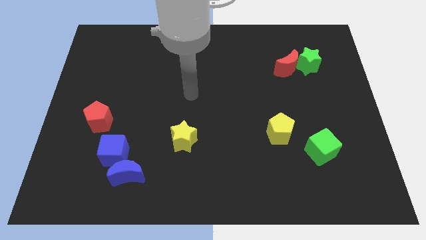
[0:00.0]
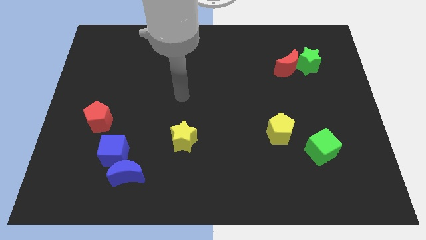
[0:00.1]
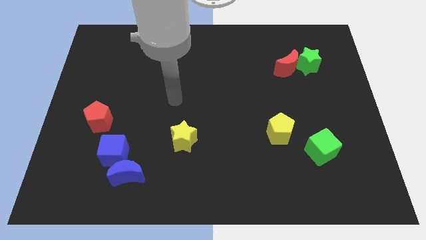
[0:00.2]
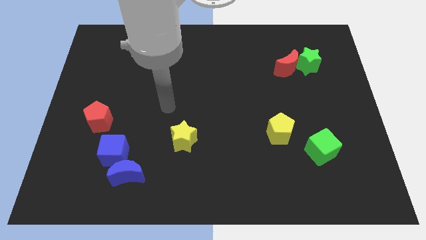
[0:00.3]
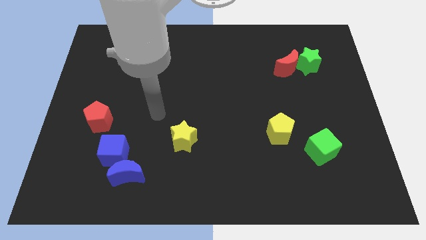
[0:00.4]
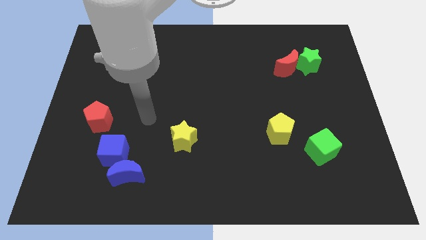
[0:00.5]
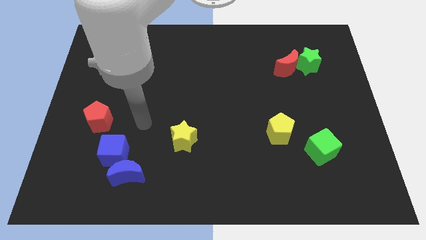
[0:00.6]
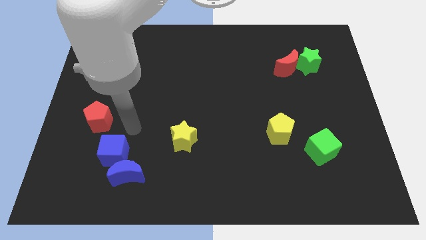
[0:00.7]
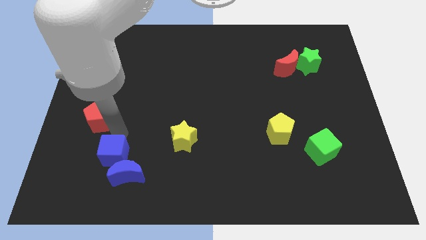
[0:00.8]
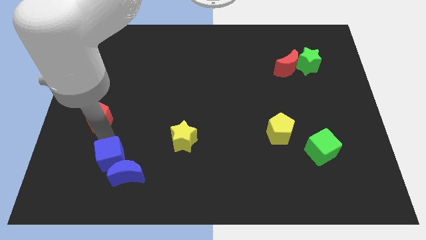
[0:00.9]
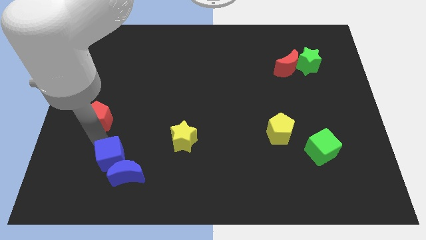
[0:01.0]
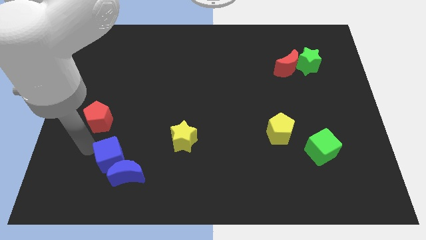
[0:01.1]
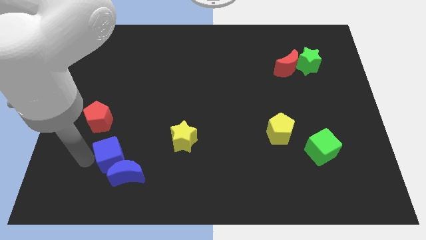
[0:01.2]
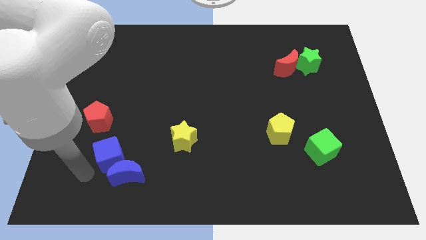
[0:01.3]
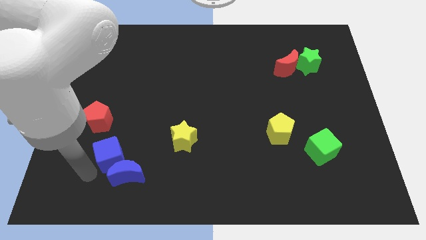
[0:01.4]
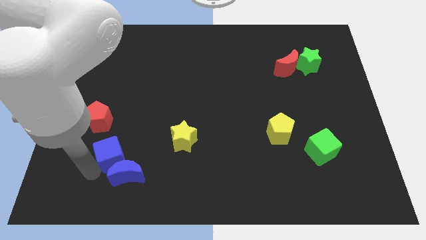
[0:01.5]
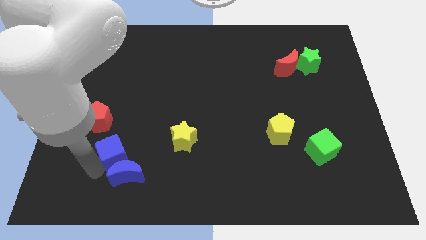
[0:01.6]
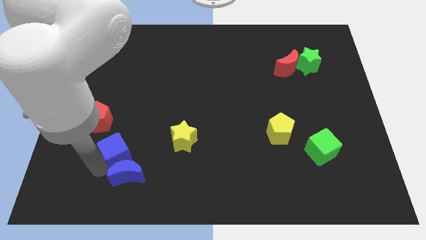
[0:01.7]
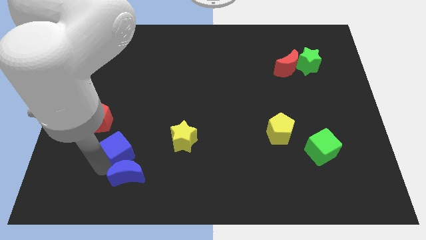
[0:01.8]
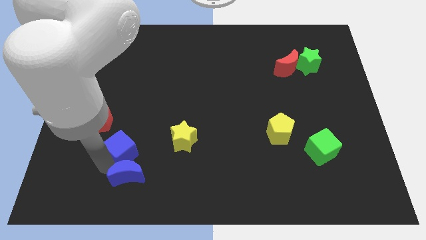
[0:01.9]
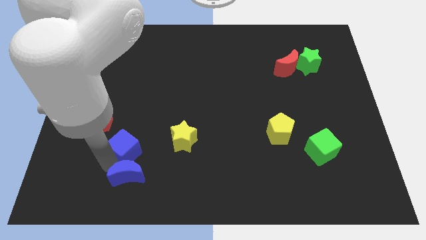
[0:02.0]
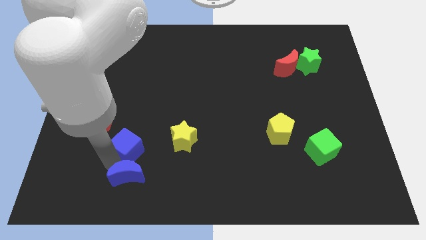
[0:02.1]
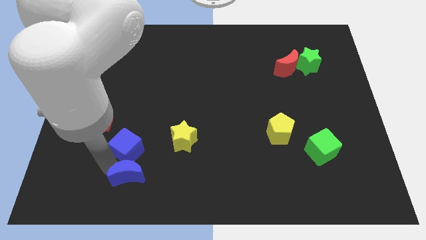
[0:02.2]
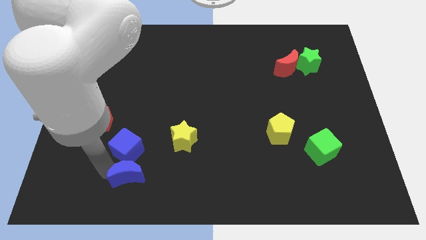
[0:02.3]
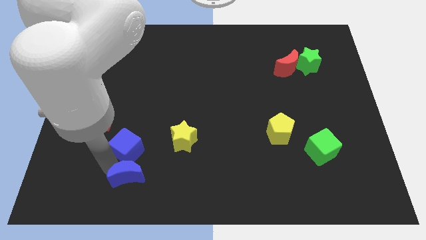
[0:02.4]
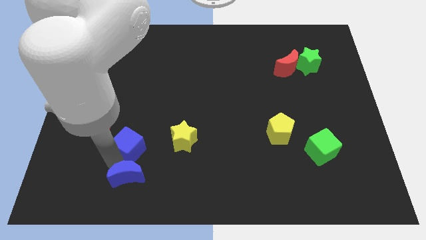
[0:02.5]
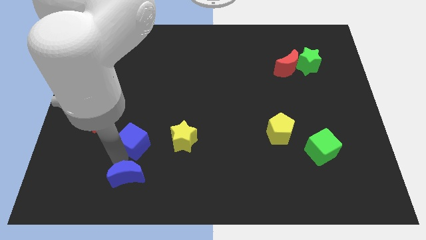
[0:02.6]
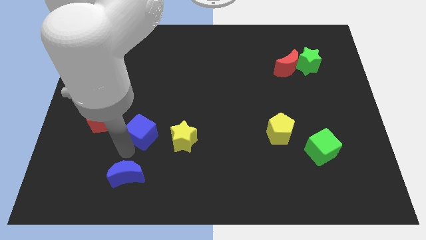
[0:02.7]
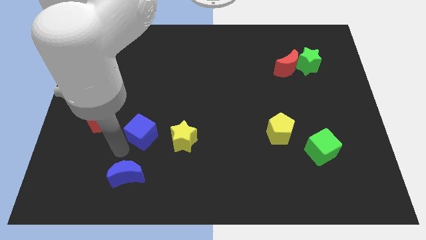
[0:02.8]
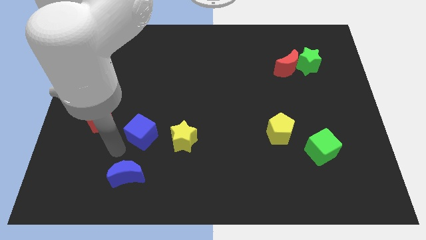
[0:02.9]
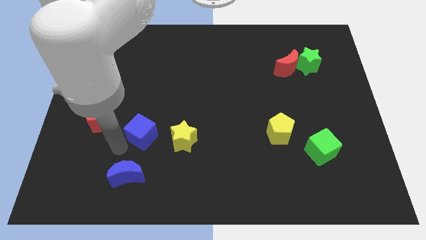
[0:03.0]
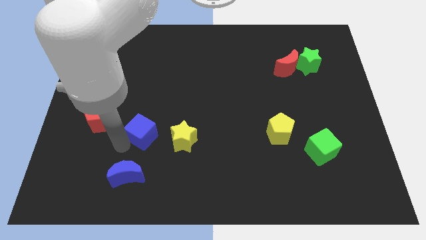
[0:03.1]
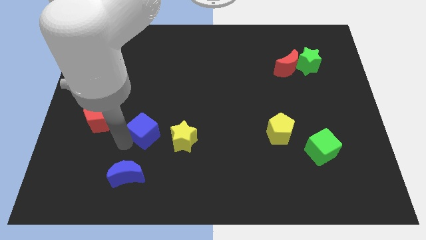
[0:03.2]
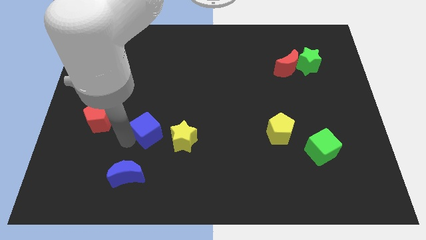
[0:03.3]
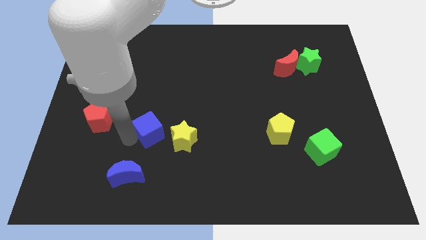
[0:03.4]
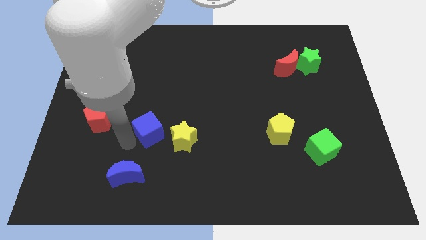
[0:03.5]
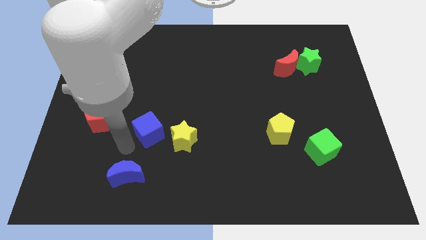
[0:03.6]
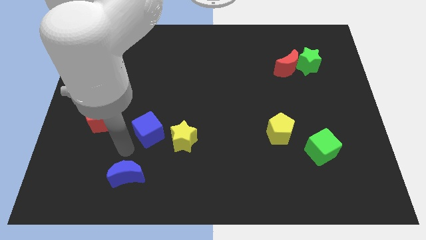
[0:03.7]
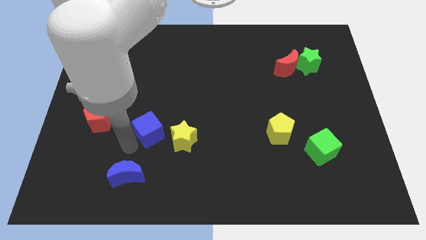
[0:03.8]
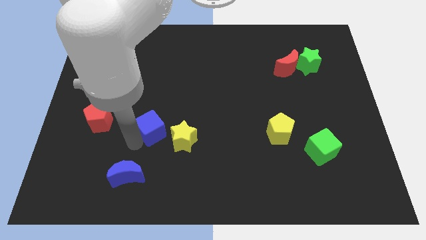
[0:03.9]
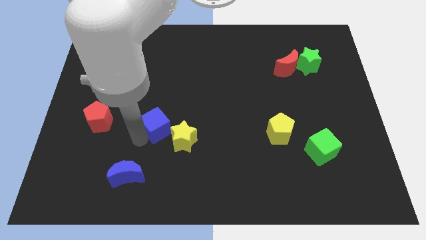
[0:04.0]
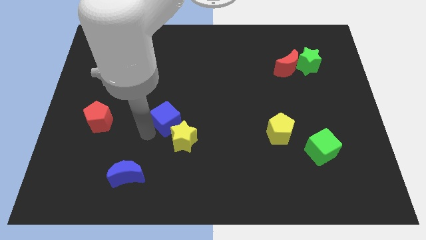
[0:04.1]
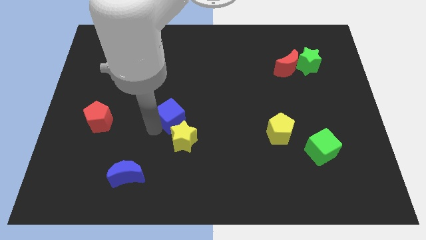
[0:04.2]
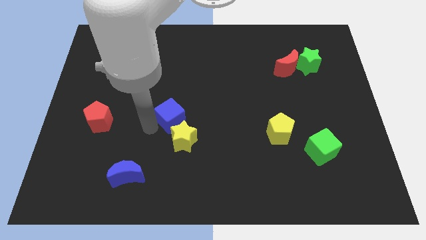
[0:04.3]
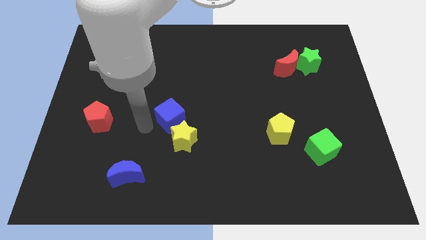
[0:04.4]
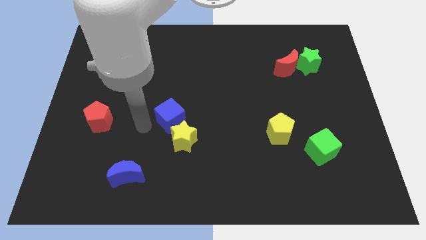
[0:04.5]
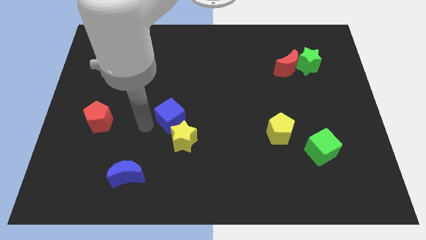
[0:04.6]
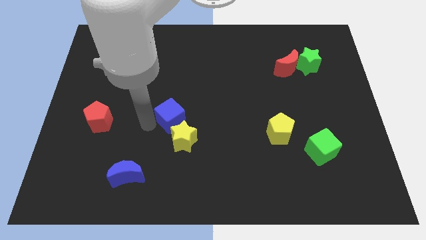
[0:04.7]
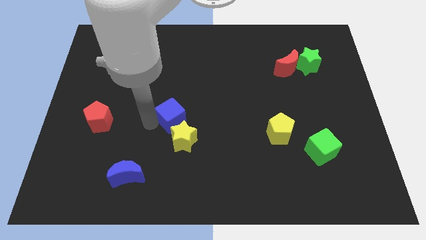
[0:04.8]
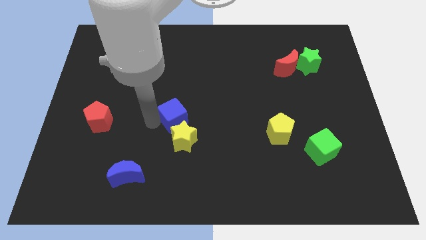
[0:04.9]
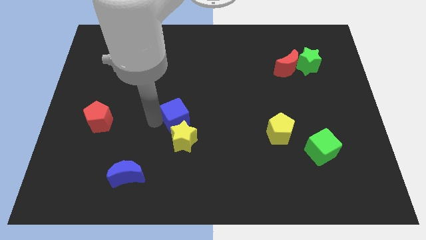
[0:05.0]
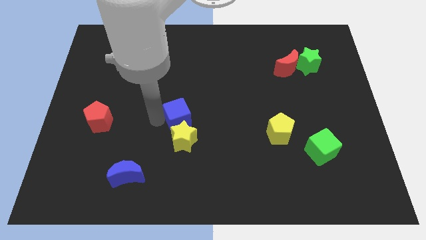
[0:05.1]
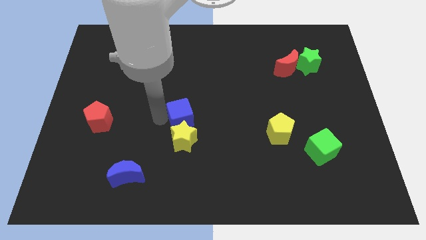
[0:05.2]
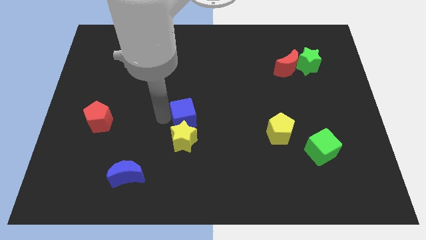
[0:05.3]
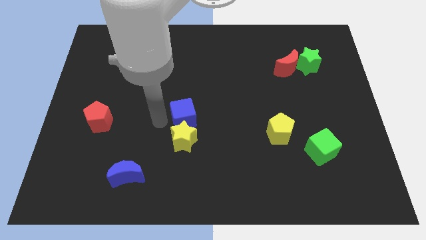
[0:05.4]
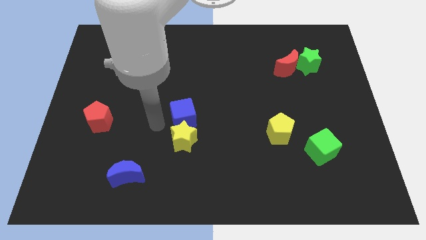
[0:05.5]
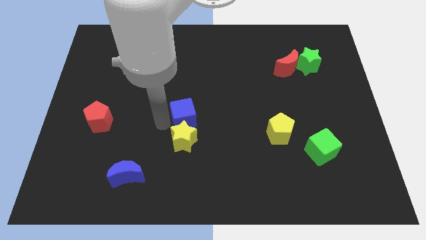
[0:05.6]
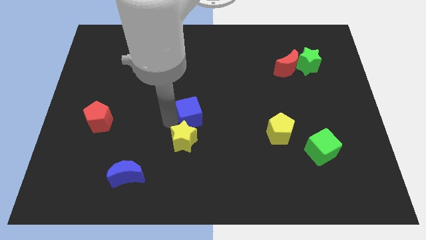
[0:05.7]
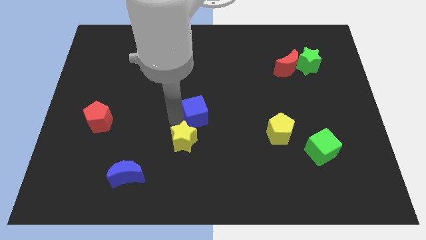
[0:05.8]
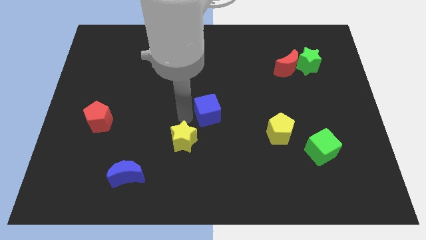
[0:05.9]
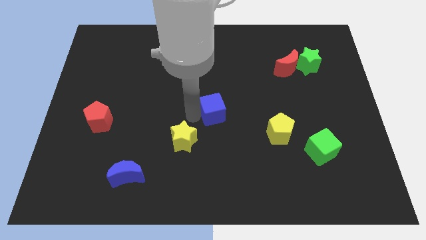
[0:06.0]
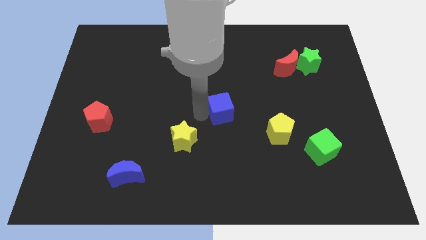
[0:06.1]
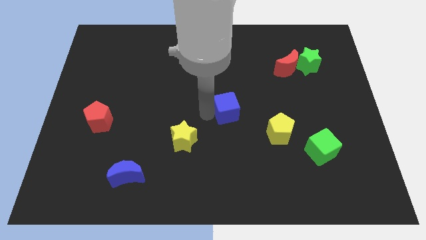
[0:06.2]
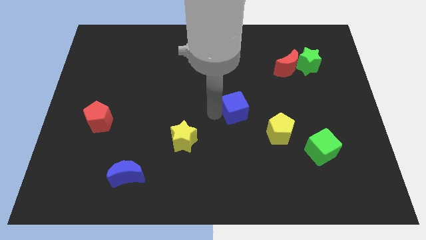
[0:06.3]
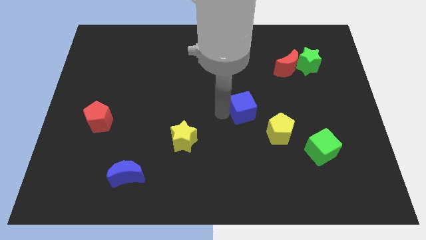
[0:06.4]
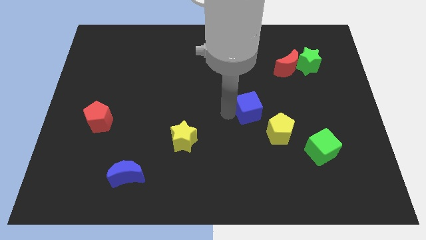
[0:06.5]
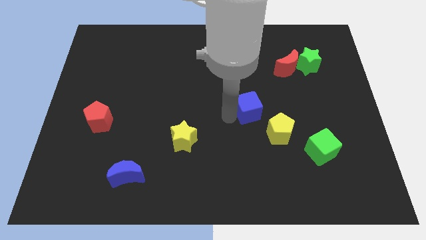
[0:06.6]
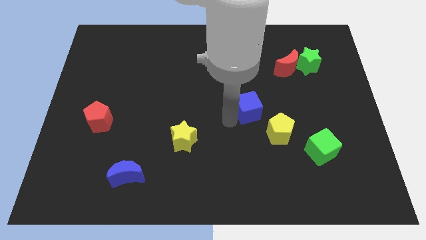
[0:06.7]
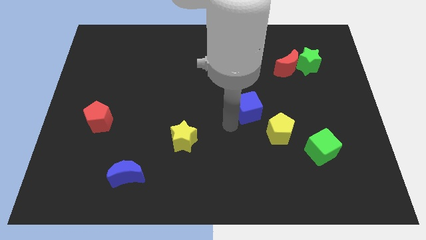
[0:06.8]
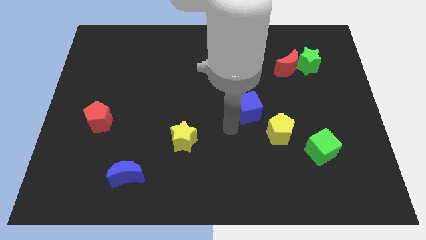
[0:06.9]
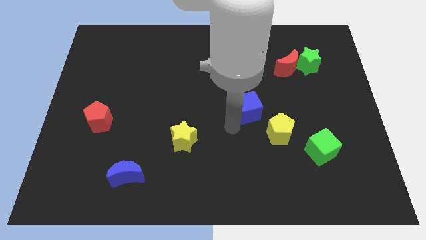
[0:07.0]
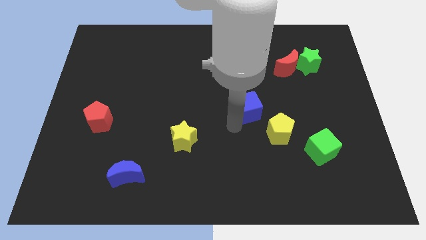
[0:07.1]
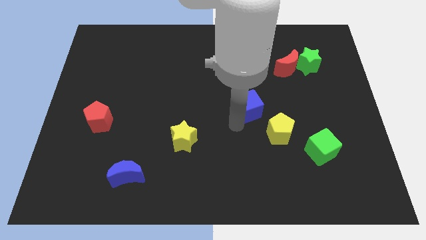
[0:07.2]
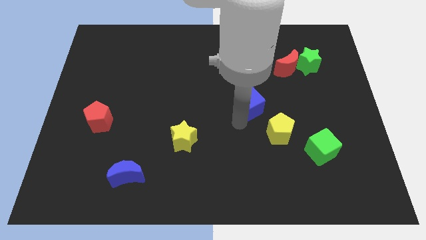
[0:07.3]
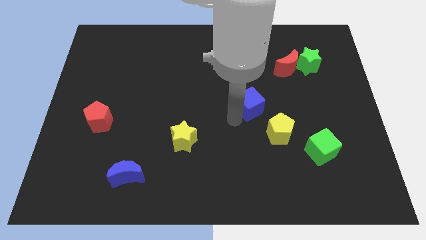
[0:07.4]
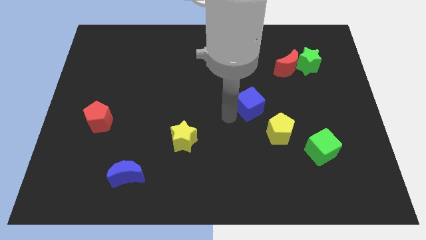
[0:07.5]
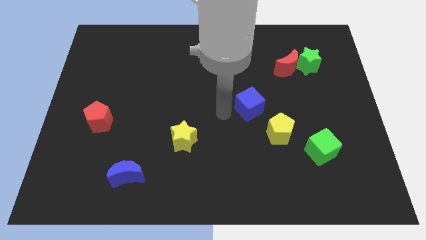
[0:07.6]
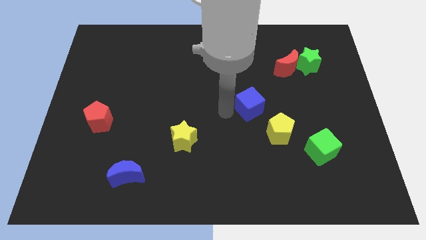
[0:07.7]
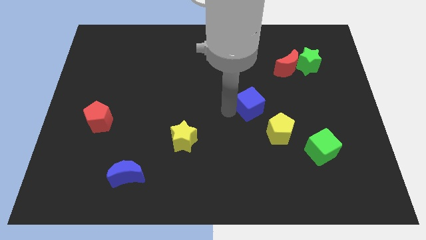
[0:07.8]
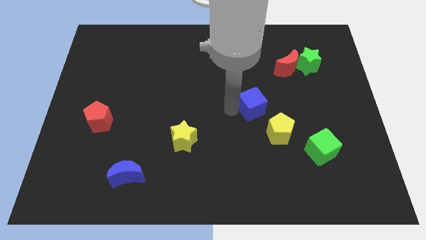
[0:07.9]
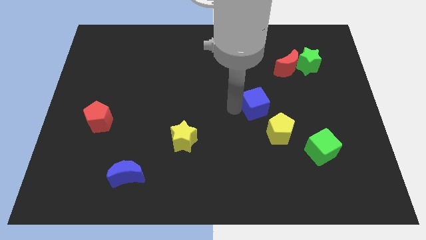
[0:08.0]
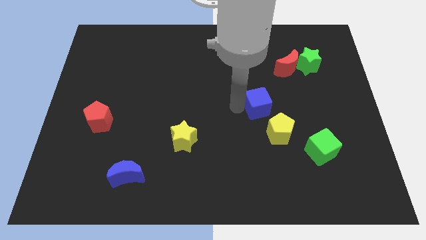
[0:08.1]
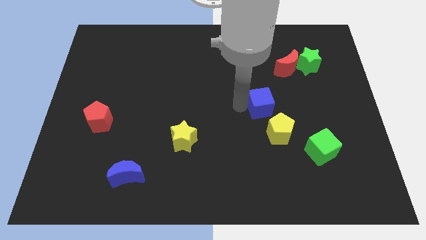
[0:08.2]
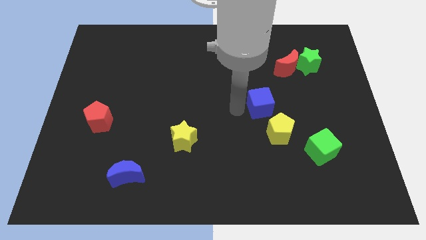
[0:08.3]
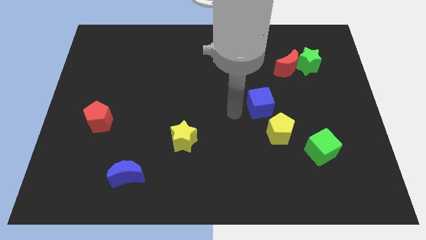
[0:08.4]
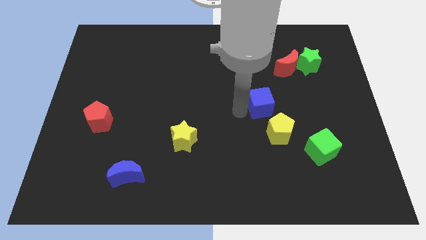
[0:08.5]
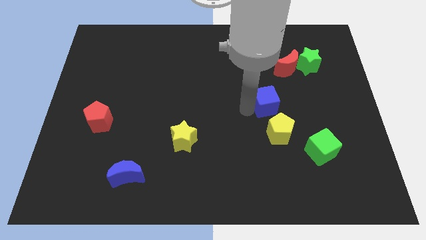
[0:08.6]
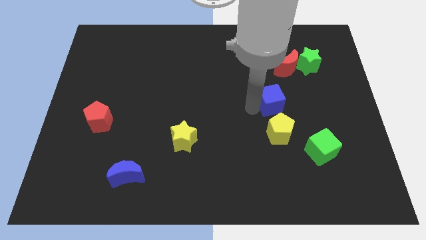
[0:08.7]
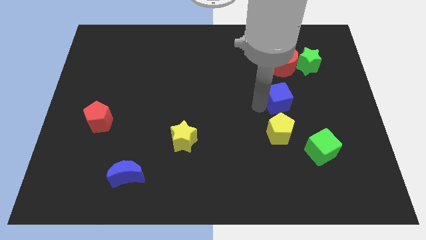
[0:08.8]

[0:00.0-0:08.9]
push the blue cube to the bottom side of the red moon
